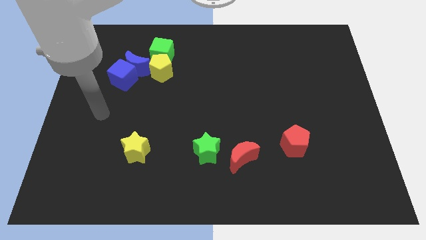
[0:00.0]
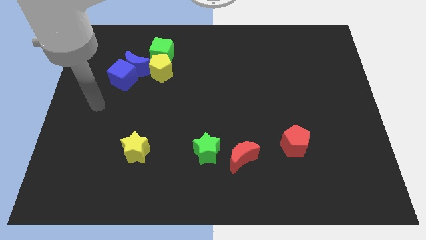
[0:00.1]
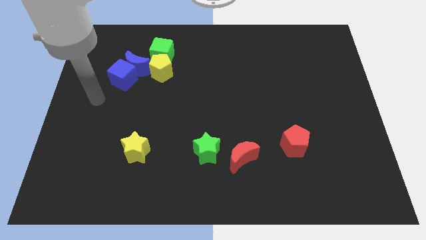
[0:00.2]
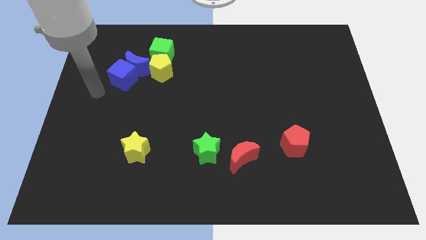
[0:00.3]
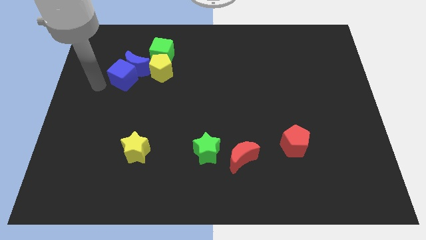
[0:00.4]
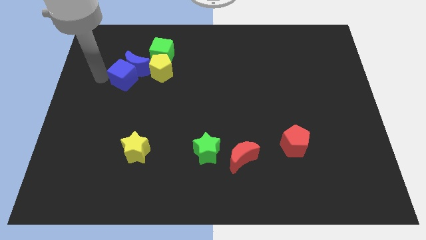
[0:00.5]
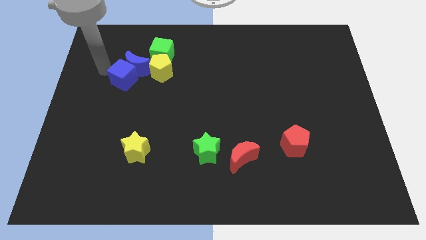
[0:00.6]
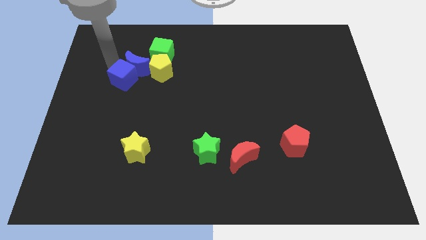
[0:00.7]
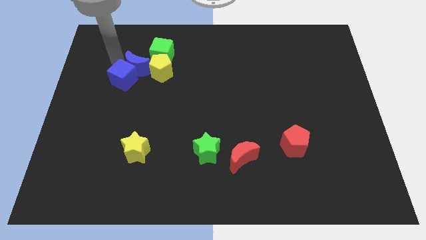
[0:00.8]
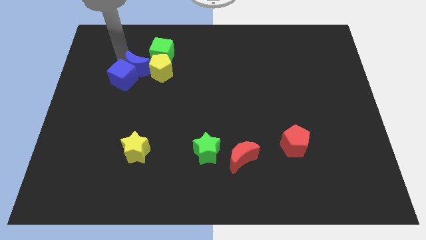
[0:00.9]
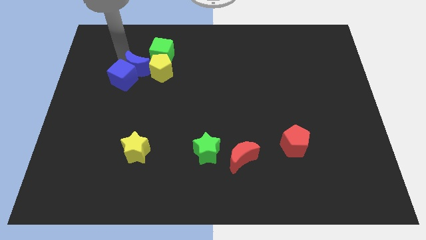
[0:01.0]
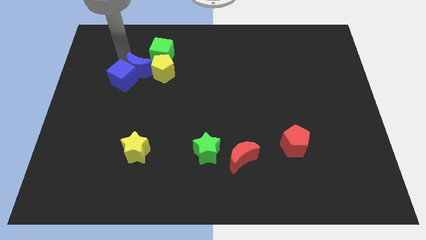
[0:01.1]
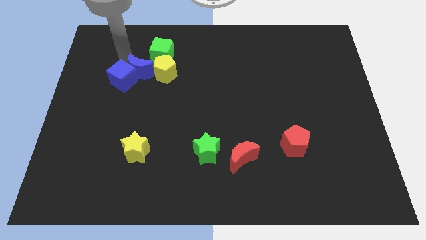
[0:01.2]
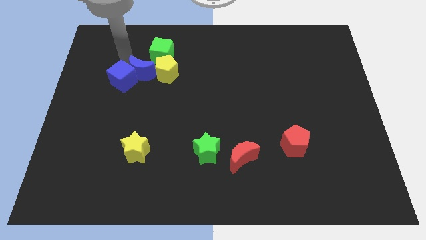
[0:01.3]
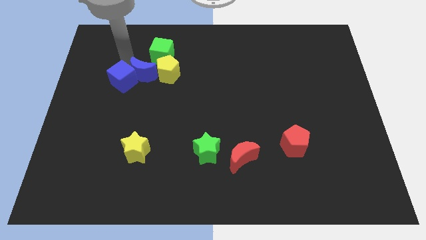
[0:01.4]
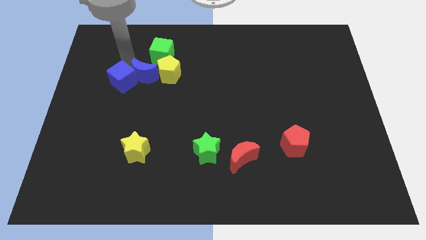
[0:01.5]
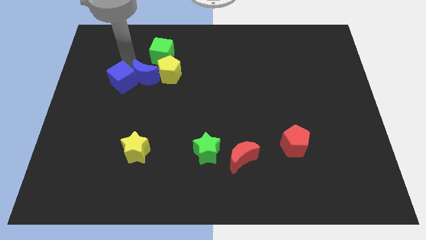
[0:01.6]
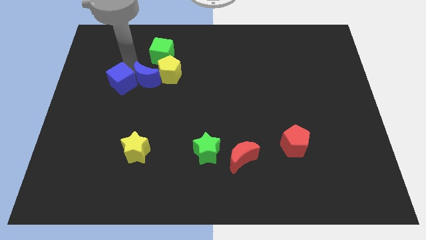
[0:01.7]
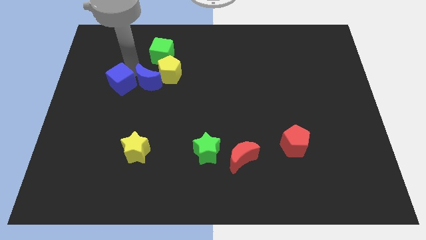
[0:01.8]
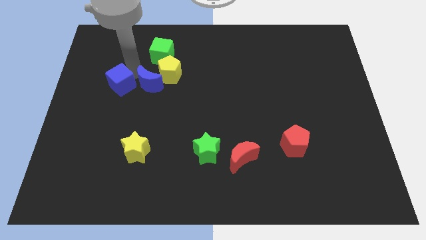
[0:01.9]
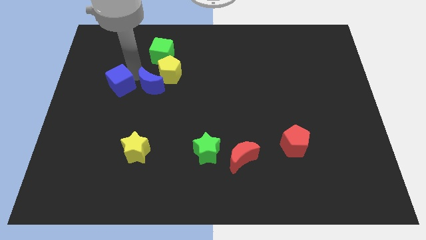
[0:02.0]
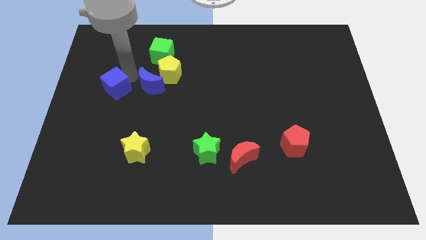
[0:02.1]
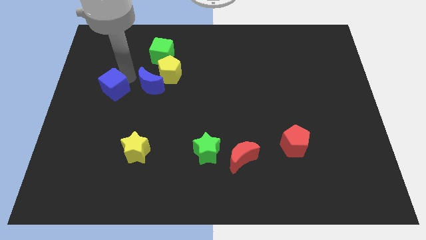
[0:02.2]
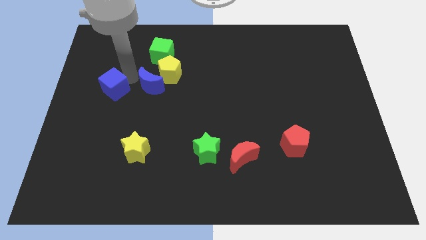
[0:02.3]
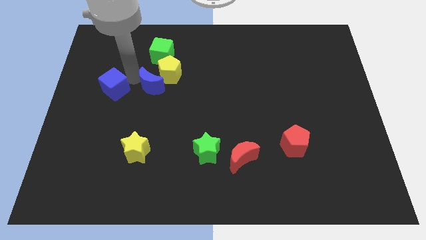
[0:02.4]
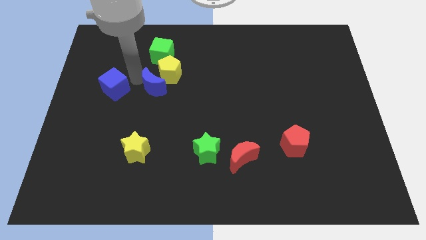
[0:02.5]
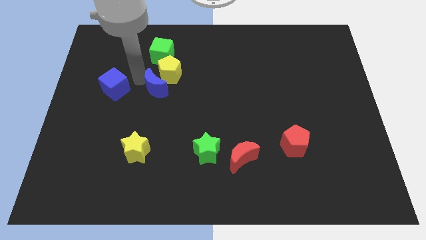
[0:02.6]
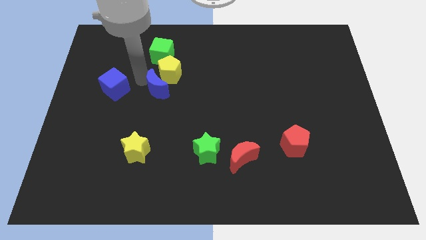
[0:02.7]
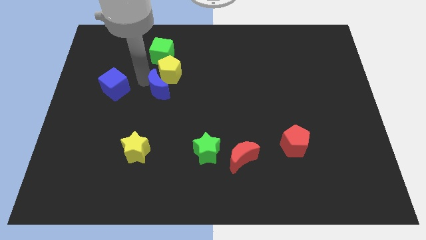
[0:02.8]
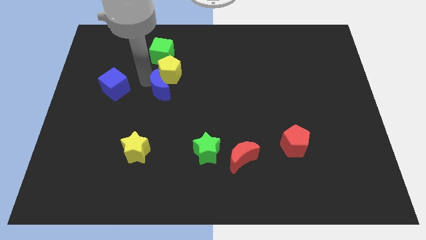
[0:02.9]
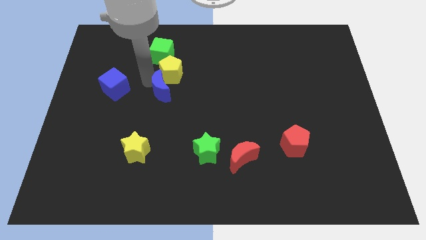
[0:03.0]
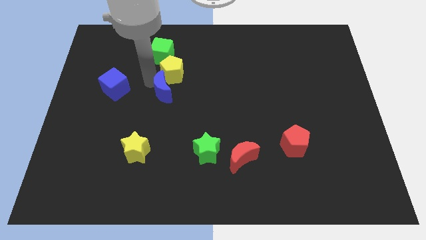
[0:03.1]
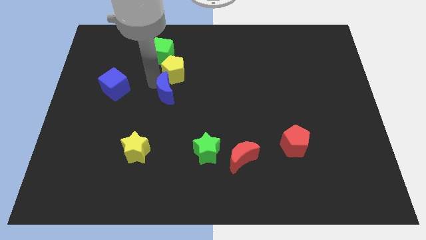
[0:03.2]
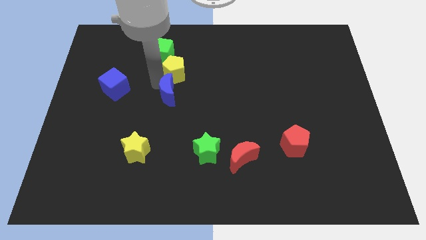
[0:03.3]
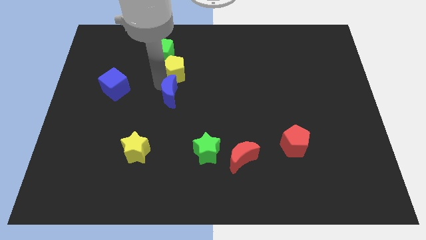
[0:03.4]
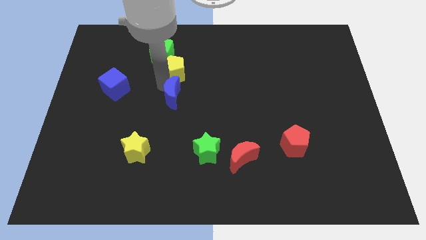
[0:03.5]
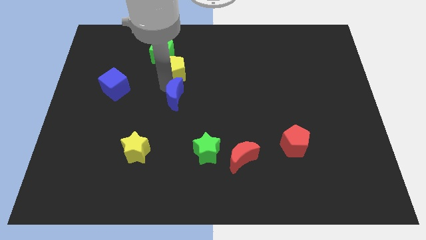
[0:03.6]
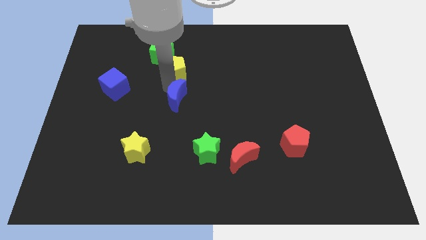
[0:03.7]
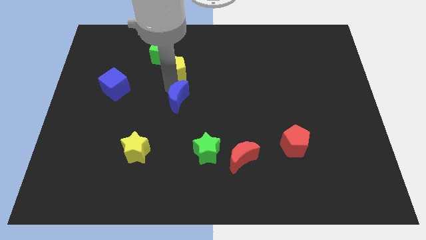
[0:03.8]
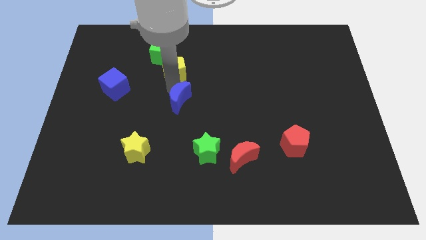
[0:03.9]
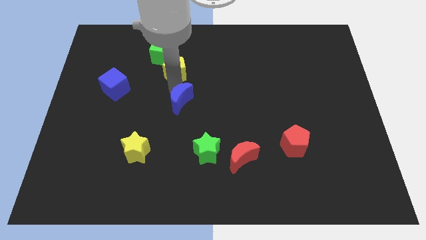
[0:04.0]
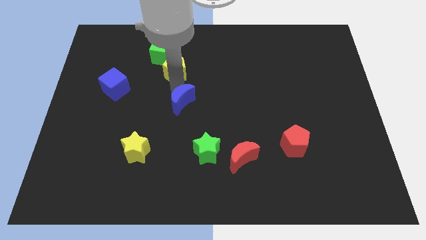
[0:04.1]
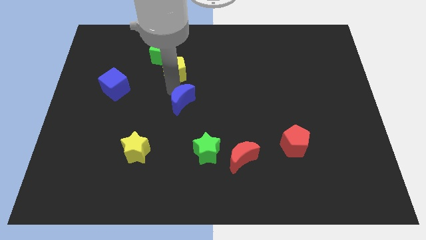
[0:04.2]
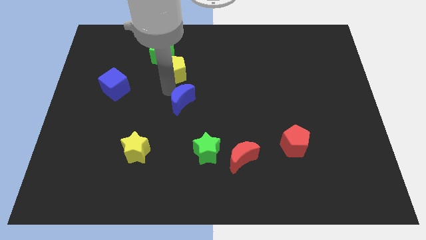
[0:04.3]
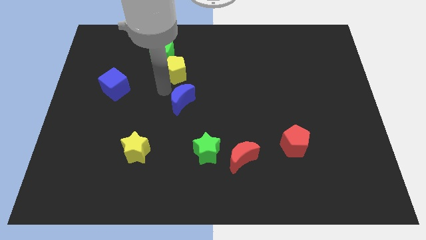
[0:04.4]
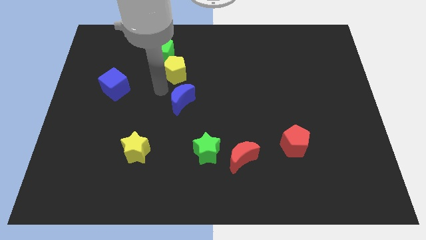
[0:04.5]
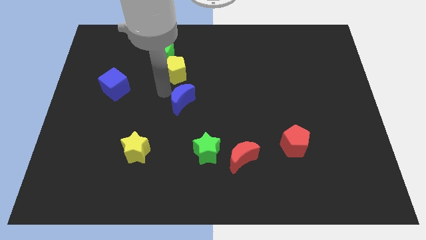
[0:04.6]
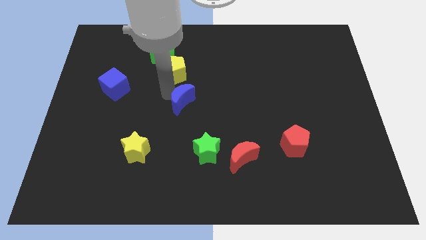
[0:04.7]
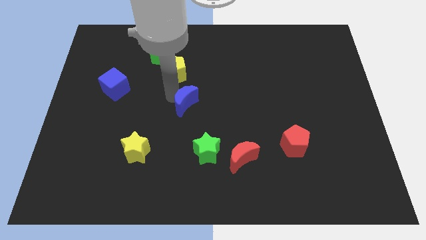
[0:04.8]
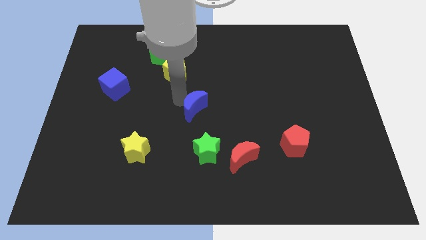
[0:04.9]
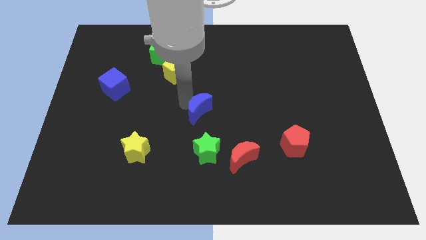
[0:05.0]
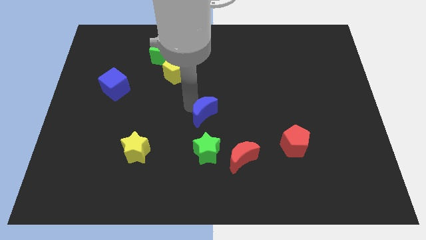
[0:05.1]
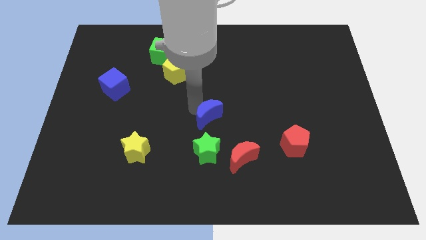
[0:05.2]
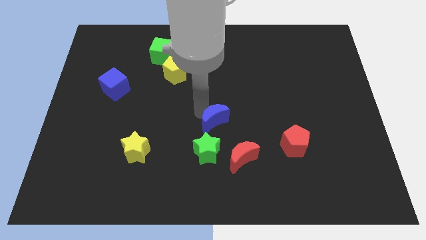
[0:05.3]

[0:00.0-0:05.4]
push the blue moon to the top right side of the green star

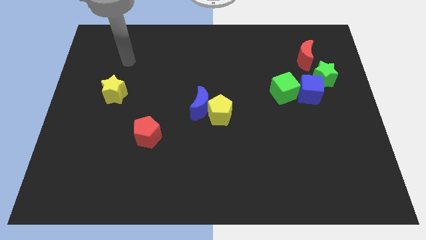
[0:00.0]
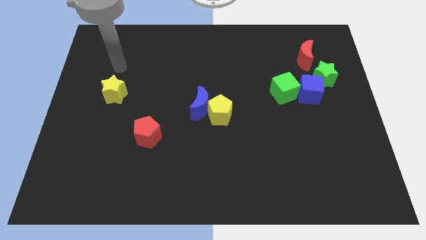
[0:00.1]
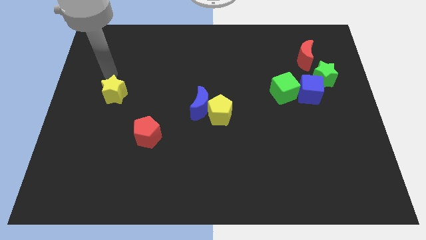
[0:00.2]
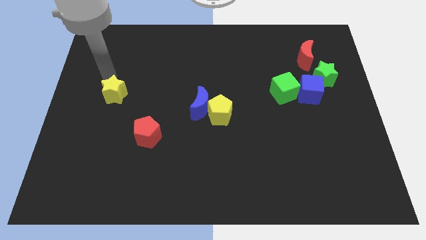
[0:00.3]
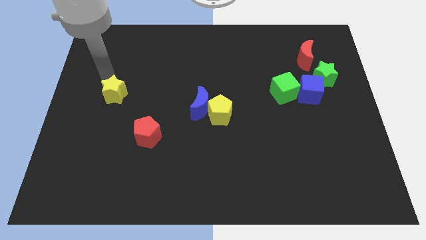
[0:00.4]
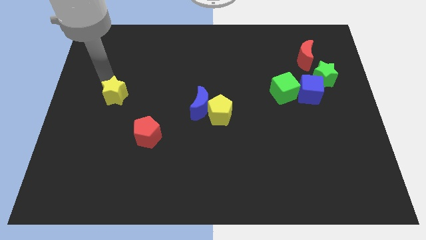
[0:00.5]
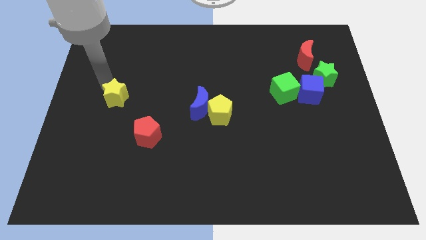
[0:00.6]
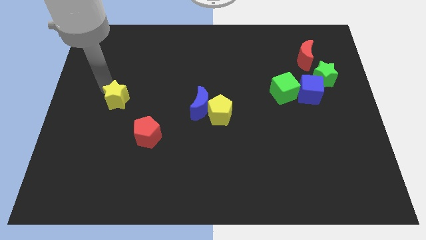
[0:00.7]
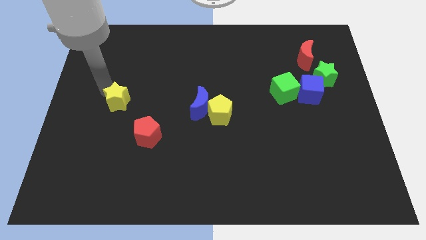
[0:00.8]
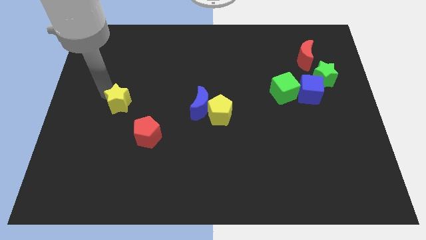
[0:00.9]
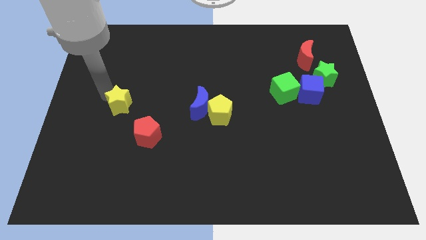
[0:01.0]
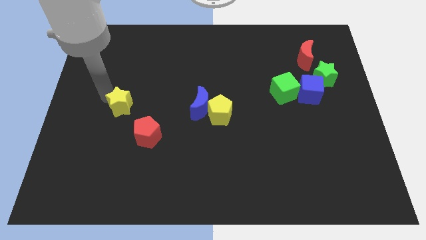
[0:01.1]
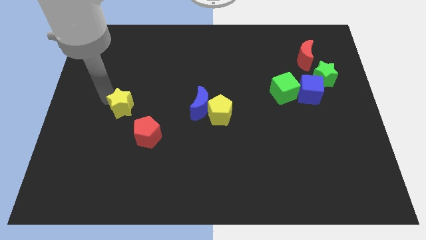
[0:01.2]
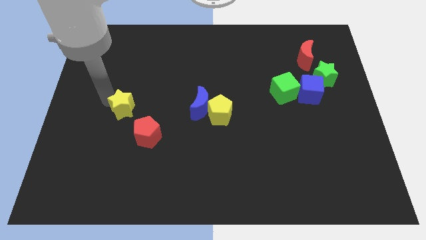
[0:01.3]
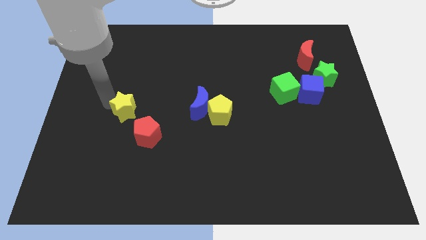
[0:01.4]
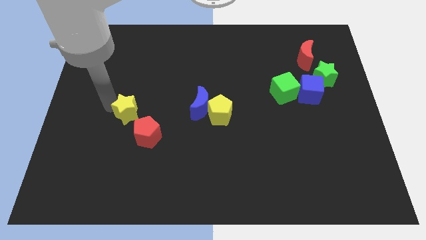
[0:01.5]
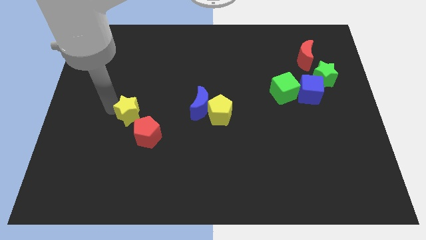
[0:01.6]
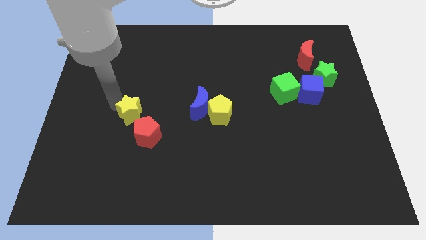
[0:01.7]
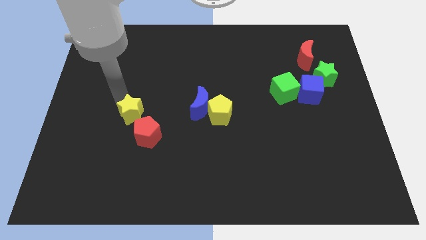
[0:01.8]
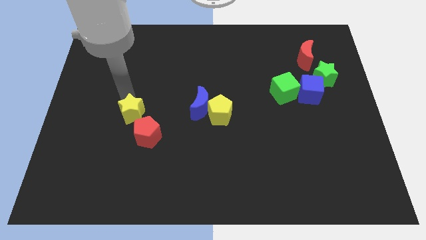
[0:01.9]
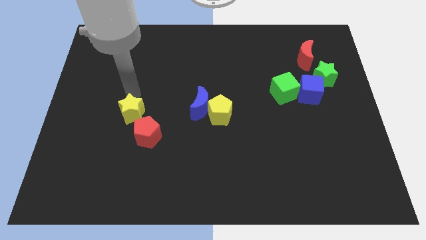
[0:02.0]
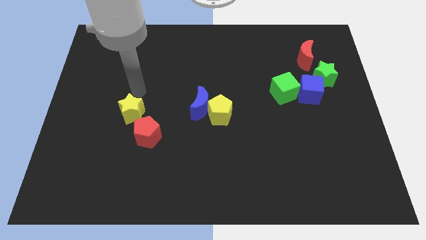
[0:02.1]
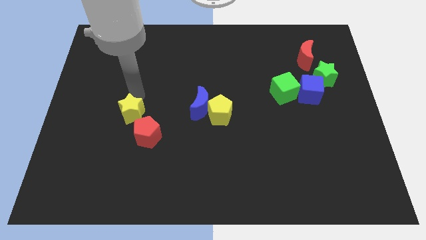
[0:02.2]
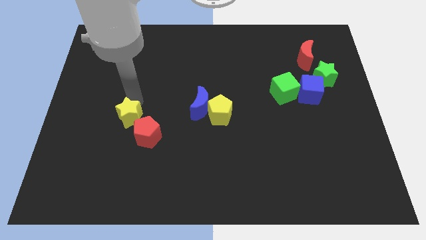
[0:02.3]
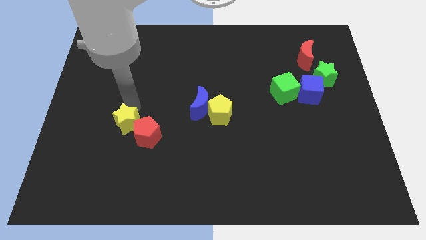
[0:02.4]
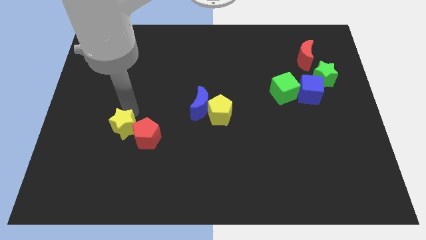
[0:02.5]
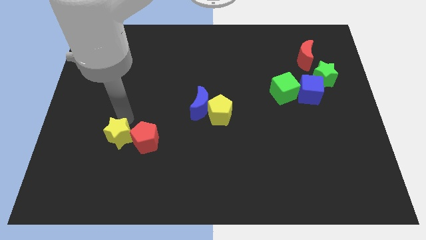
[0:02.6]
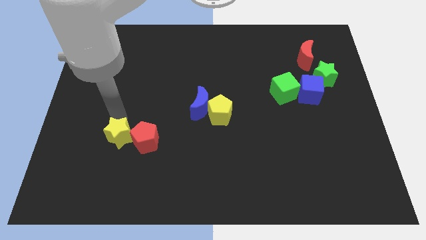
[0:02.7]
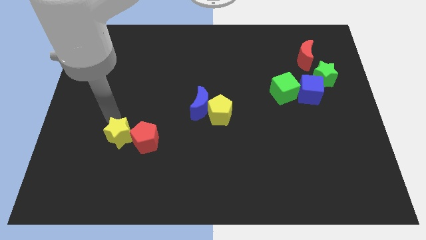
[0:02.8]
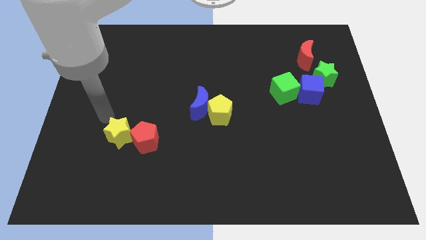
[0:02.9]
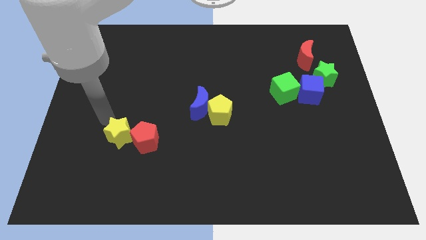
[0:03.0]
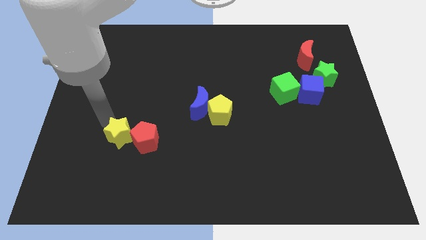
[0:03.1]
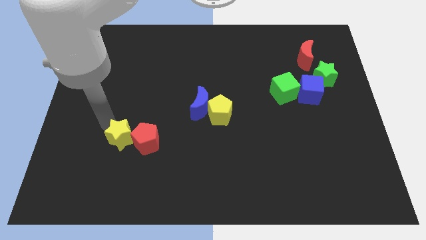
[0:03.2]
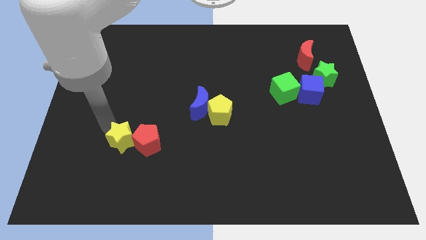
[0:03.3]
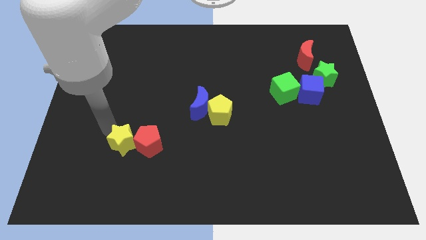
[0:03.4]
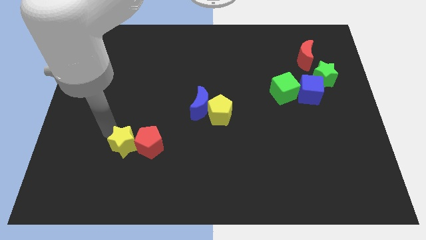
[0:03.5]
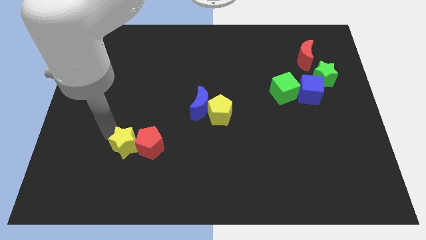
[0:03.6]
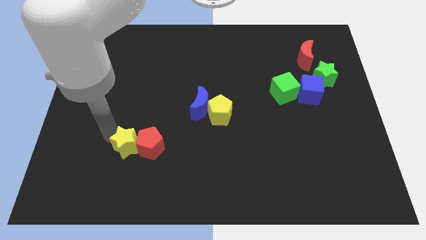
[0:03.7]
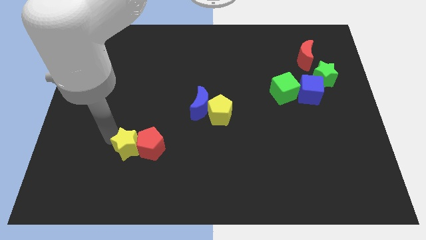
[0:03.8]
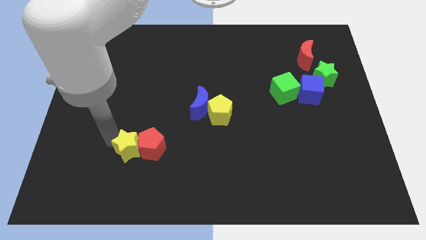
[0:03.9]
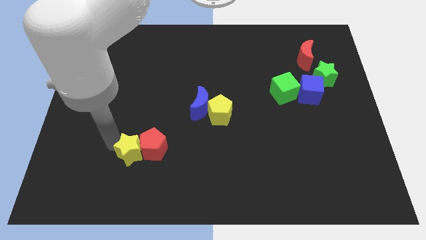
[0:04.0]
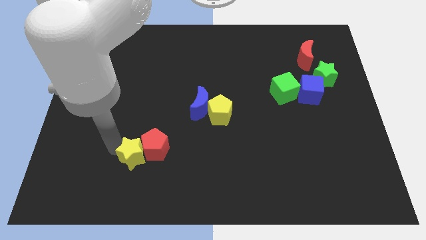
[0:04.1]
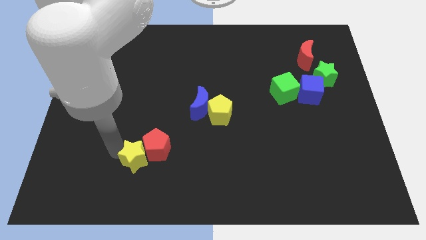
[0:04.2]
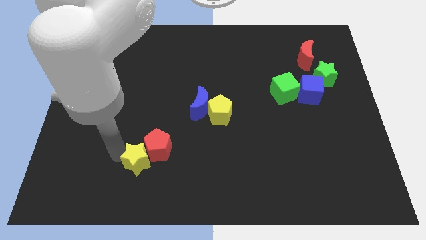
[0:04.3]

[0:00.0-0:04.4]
move the yellow star to the bottom of the red pentagon
